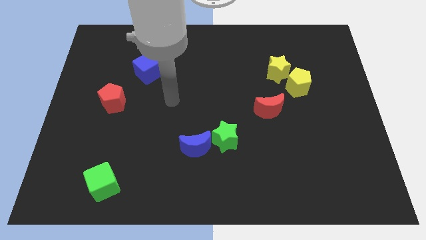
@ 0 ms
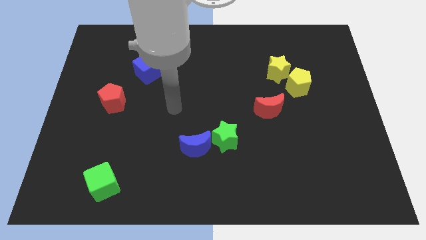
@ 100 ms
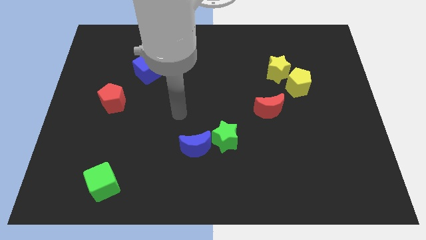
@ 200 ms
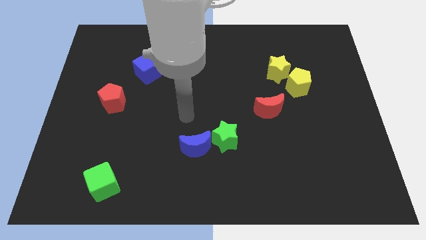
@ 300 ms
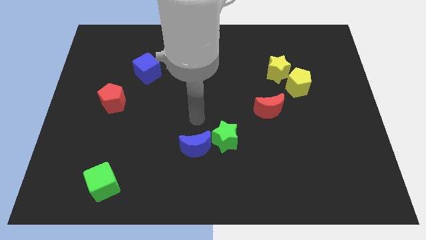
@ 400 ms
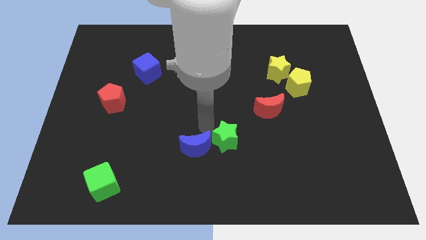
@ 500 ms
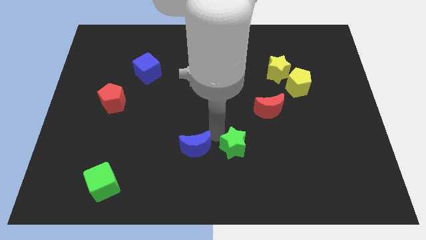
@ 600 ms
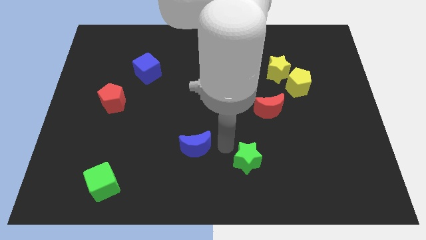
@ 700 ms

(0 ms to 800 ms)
move the blue moon away from the green star

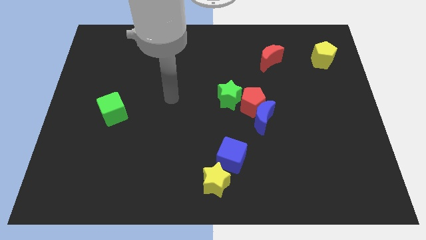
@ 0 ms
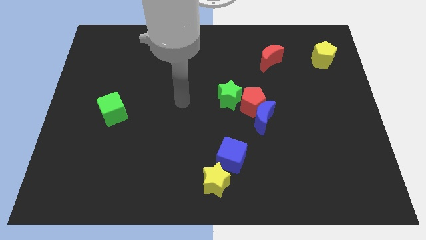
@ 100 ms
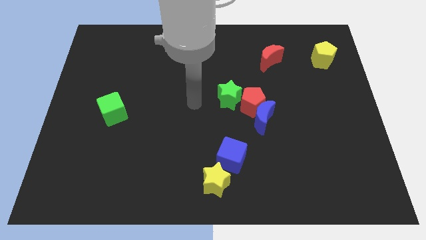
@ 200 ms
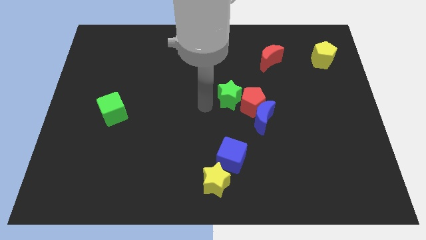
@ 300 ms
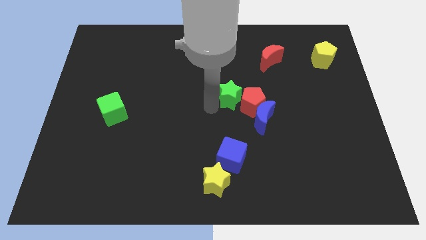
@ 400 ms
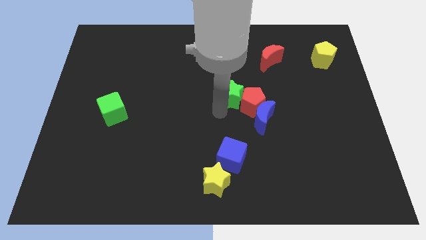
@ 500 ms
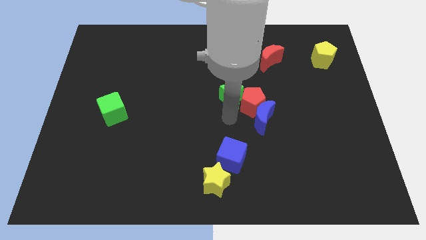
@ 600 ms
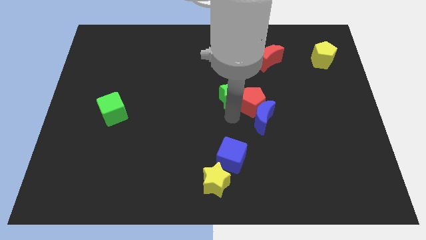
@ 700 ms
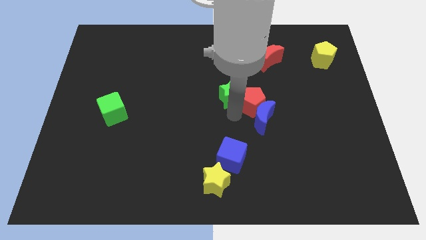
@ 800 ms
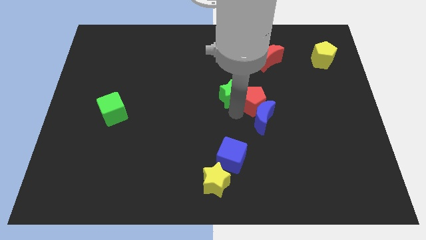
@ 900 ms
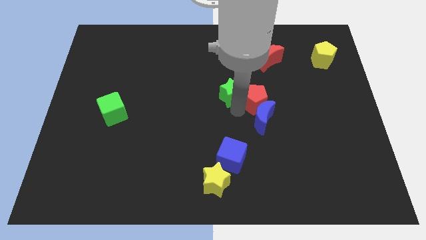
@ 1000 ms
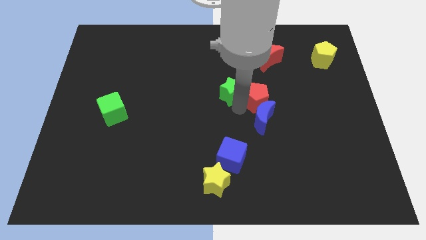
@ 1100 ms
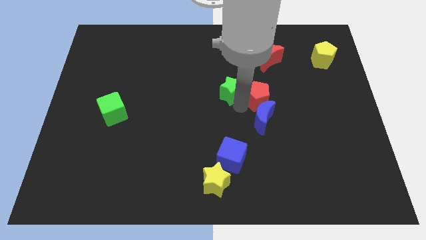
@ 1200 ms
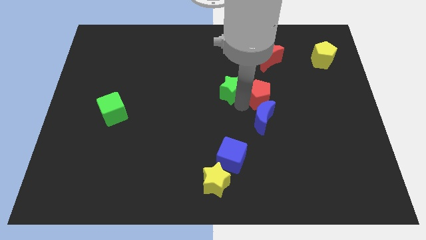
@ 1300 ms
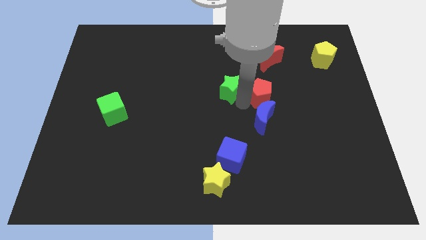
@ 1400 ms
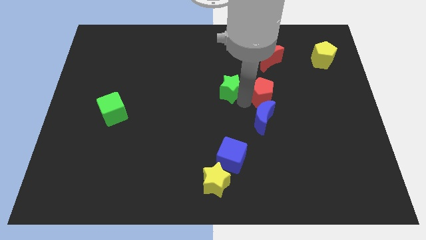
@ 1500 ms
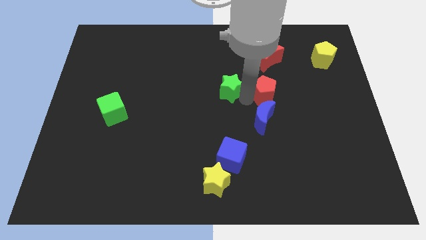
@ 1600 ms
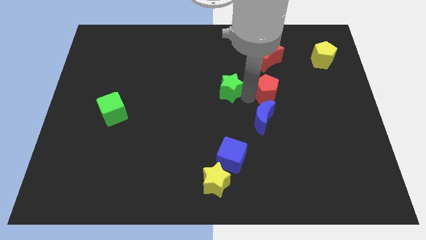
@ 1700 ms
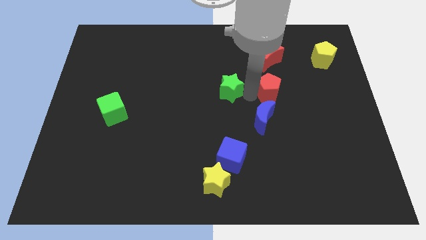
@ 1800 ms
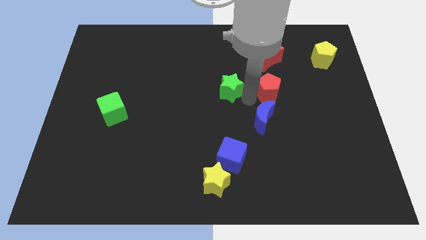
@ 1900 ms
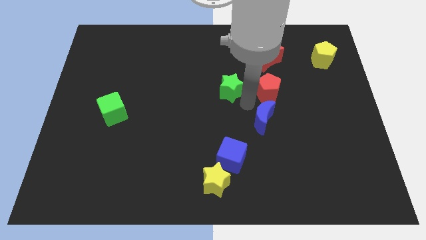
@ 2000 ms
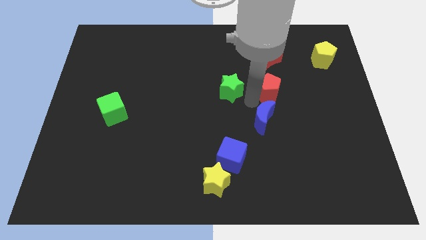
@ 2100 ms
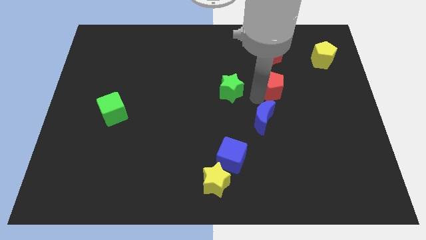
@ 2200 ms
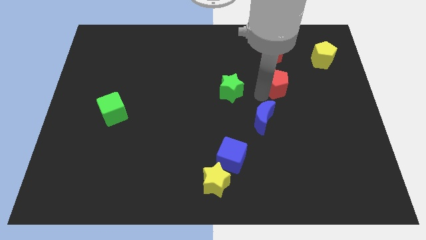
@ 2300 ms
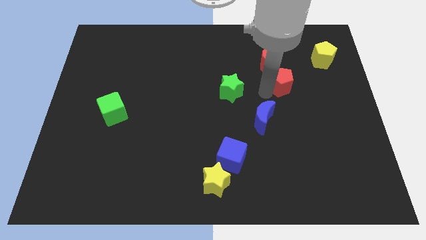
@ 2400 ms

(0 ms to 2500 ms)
move the red pentagon away from the blue moon and green star

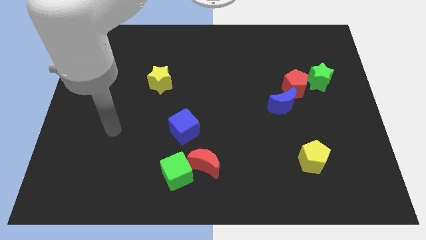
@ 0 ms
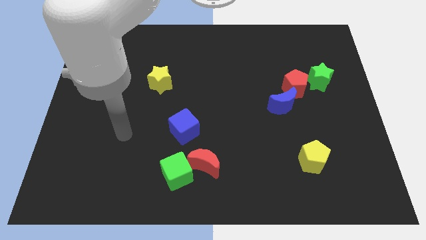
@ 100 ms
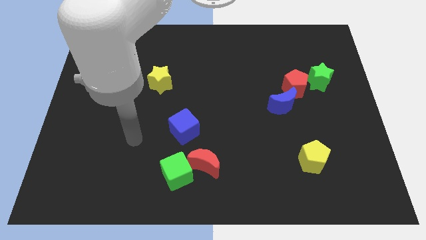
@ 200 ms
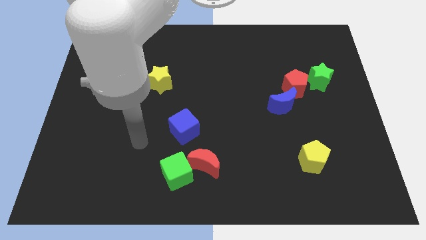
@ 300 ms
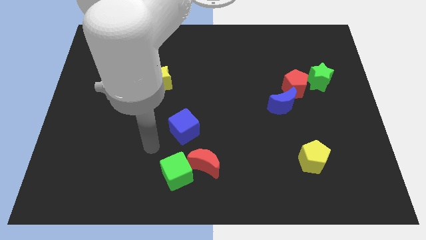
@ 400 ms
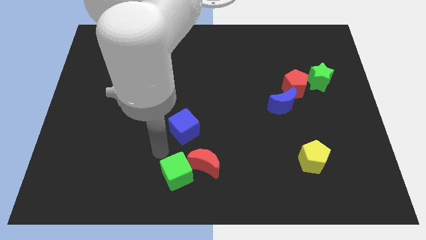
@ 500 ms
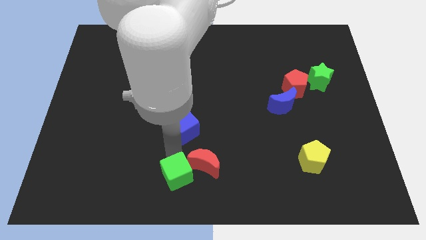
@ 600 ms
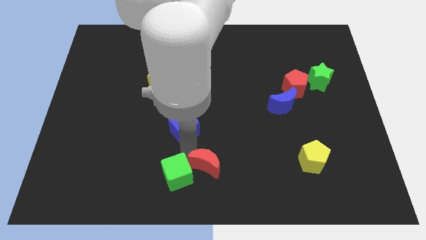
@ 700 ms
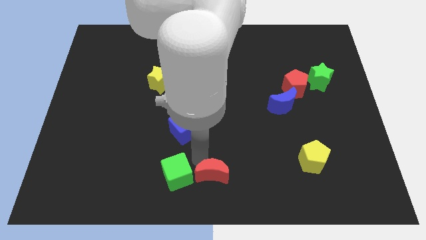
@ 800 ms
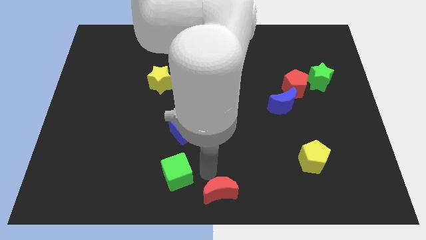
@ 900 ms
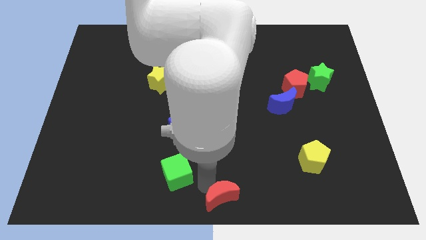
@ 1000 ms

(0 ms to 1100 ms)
pull the green cube apart from the red moon

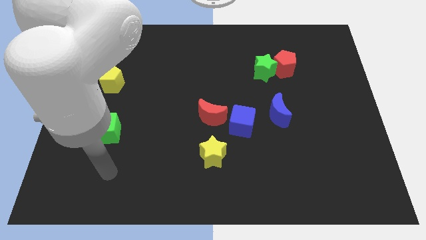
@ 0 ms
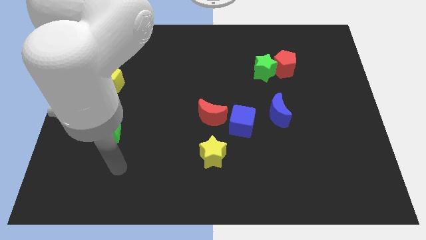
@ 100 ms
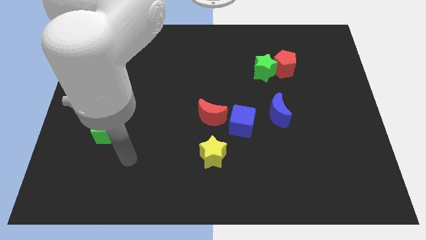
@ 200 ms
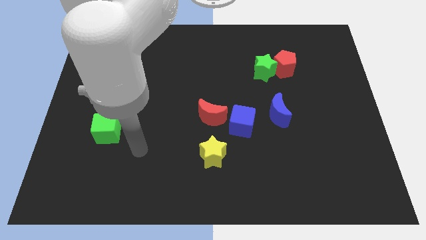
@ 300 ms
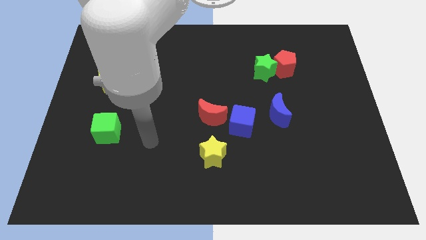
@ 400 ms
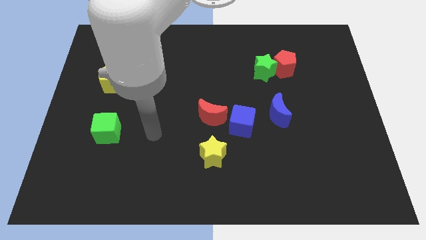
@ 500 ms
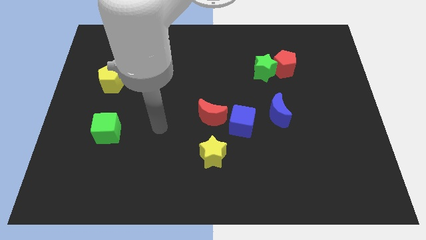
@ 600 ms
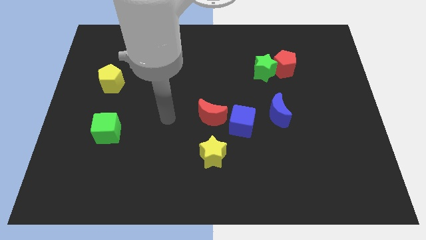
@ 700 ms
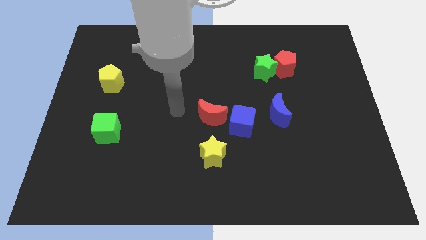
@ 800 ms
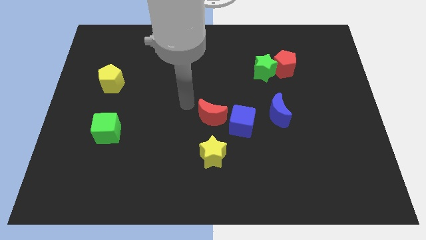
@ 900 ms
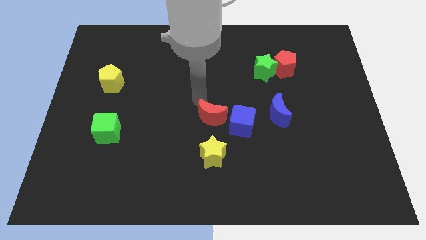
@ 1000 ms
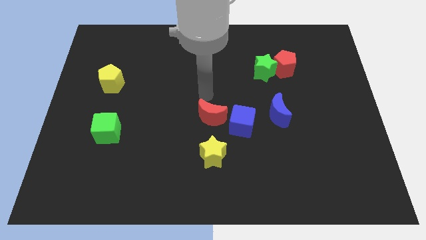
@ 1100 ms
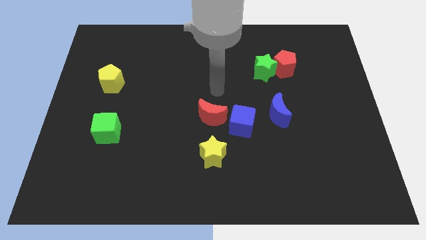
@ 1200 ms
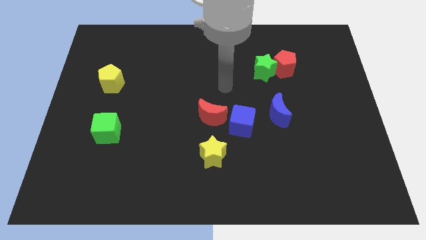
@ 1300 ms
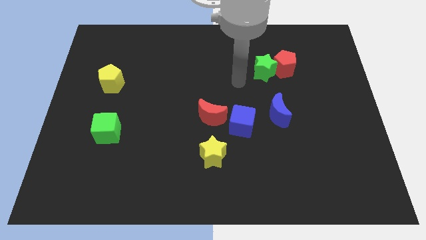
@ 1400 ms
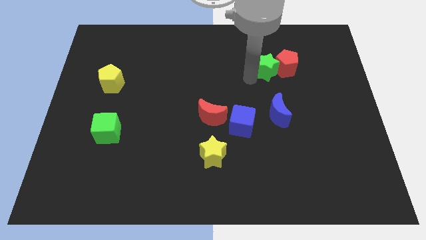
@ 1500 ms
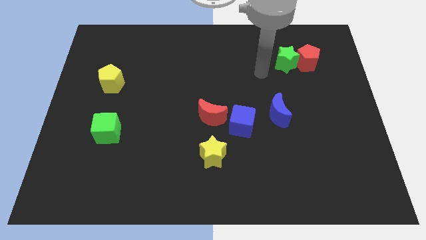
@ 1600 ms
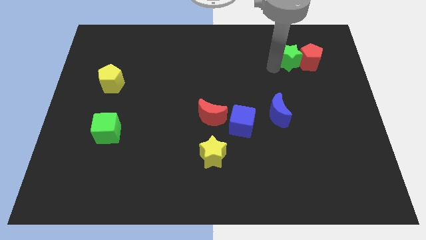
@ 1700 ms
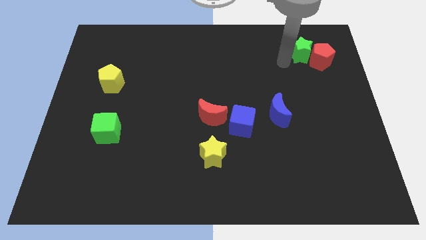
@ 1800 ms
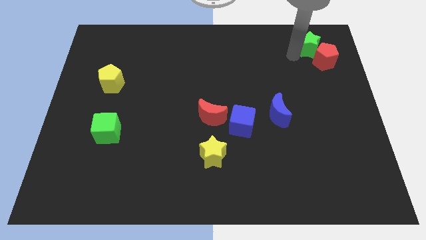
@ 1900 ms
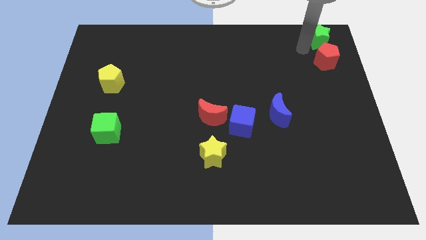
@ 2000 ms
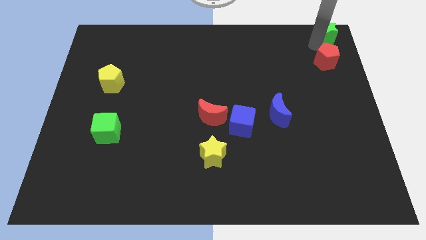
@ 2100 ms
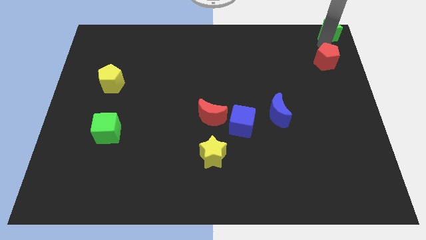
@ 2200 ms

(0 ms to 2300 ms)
pull the red pentagon apart from the green star

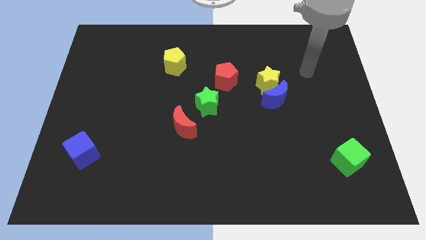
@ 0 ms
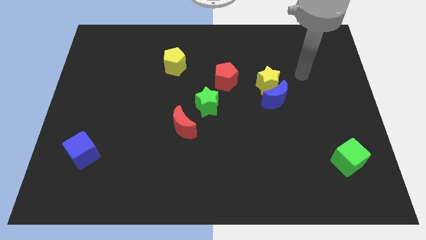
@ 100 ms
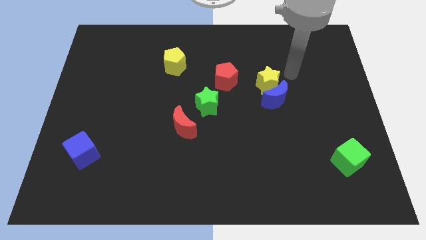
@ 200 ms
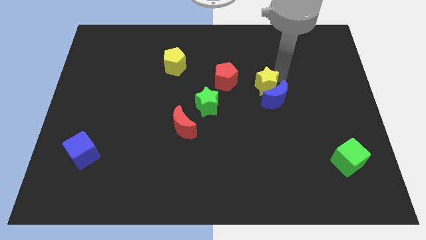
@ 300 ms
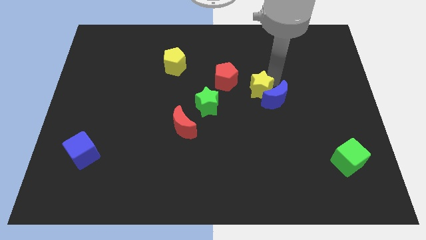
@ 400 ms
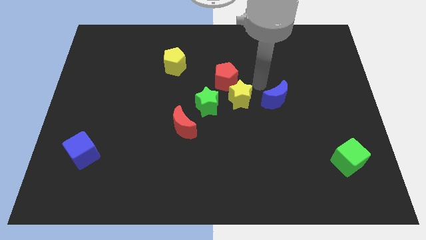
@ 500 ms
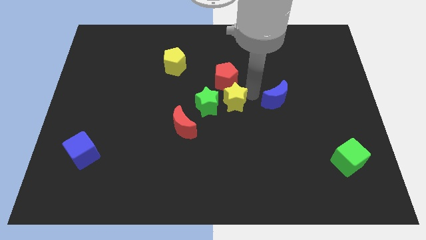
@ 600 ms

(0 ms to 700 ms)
pull the blue moon apart from the yellow star

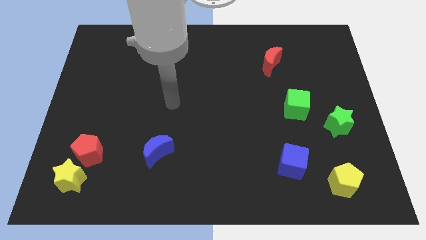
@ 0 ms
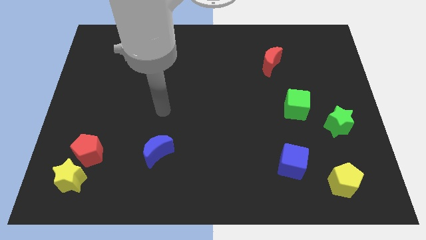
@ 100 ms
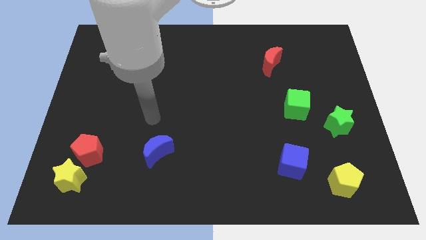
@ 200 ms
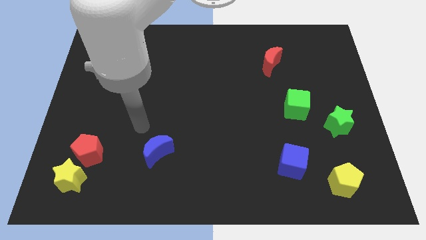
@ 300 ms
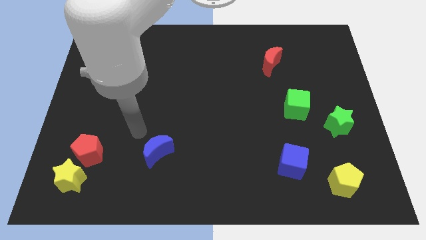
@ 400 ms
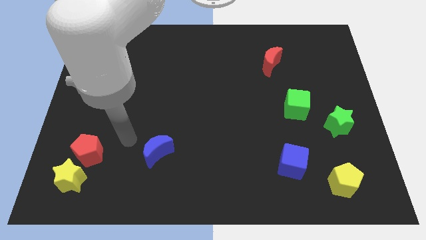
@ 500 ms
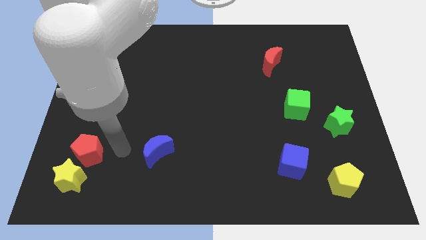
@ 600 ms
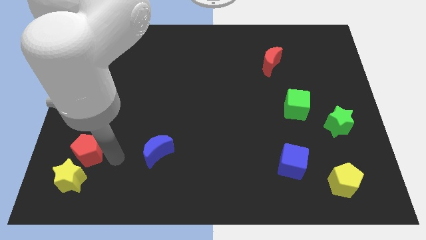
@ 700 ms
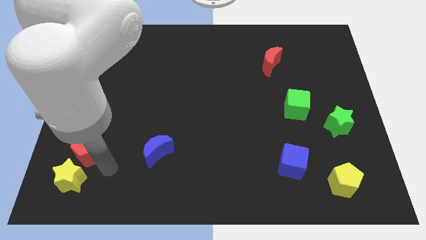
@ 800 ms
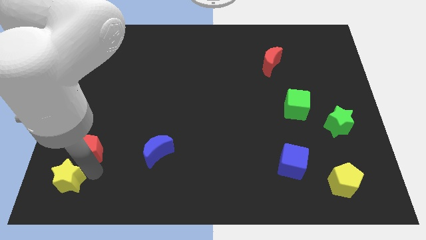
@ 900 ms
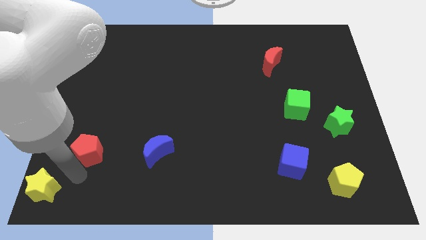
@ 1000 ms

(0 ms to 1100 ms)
pull the red pentagon apart from the yellow star

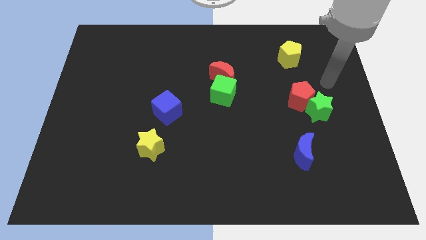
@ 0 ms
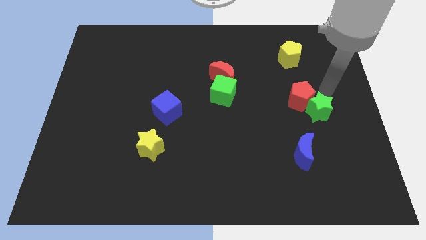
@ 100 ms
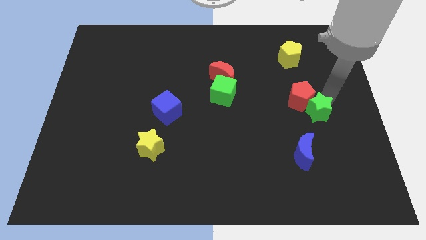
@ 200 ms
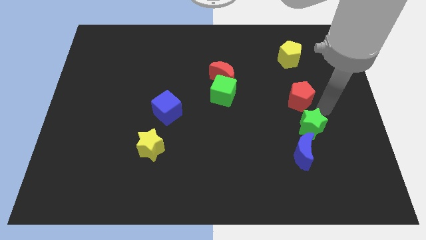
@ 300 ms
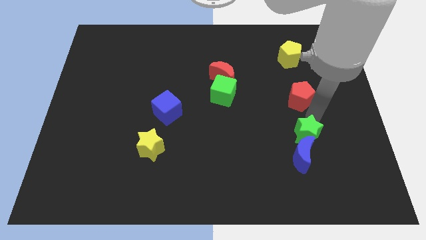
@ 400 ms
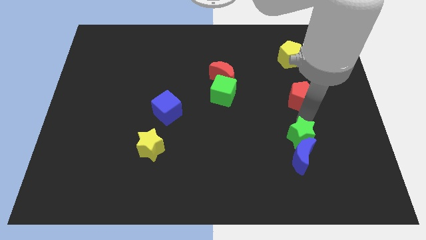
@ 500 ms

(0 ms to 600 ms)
separate the red pentagon from the green star
